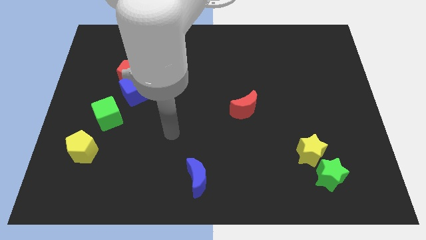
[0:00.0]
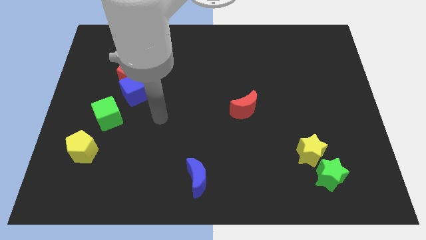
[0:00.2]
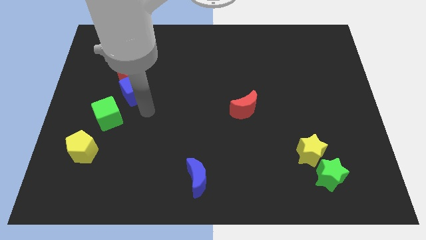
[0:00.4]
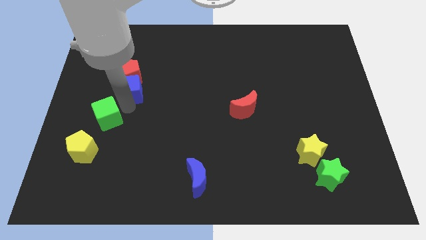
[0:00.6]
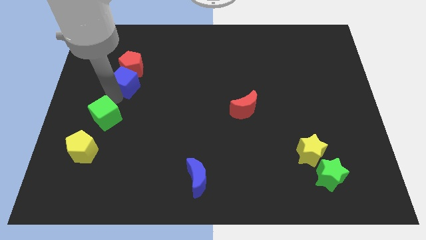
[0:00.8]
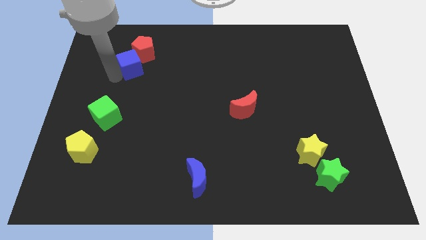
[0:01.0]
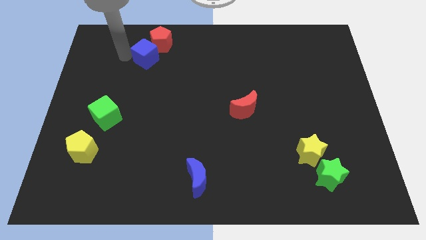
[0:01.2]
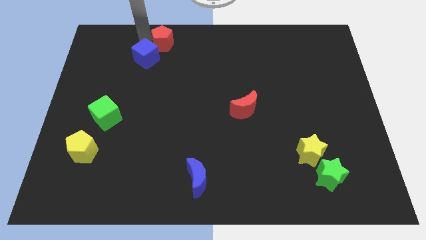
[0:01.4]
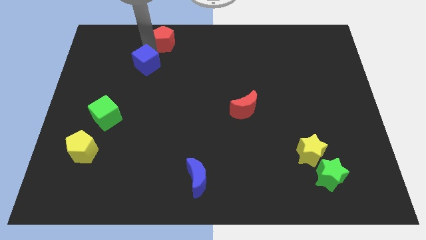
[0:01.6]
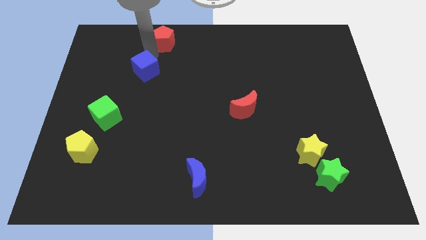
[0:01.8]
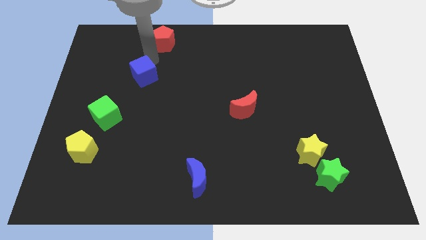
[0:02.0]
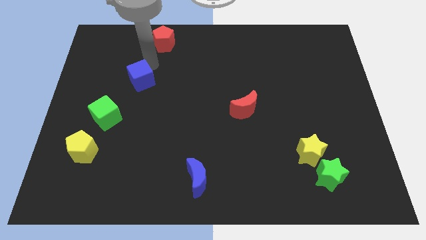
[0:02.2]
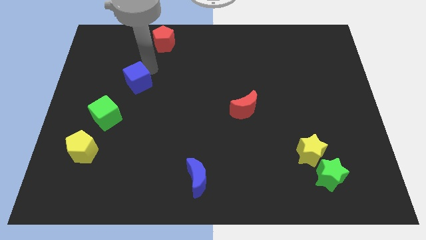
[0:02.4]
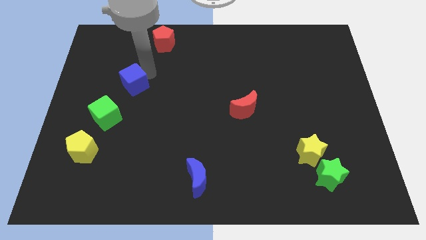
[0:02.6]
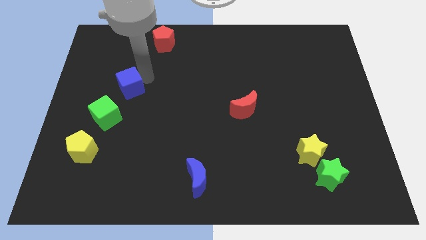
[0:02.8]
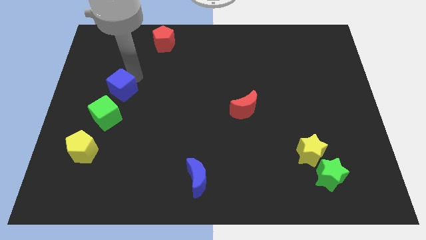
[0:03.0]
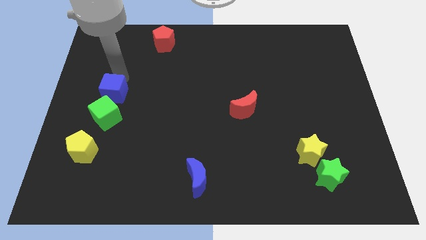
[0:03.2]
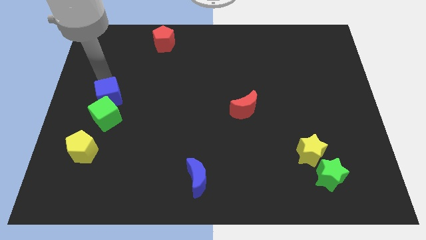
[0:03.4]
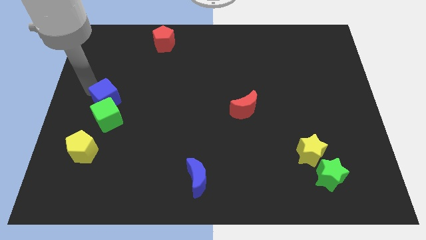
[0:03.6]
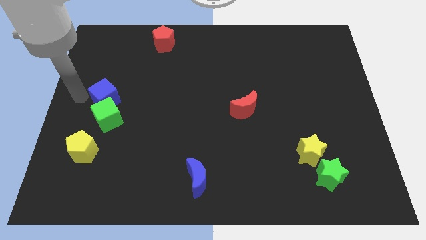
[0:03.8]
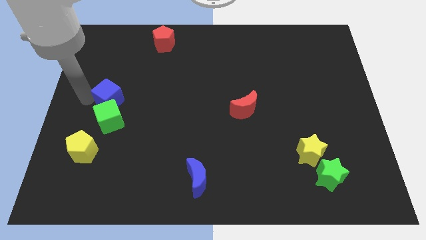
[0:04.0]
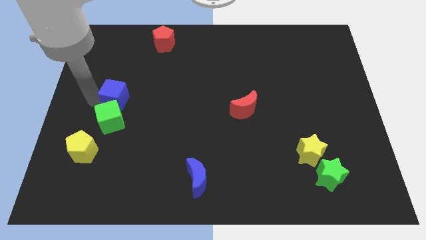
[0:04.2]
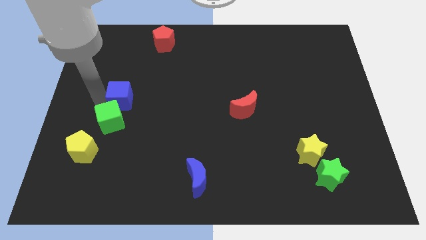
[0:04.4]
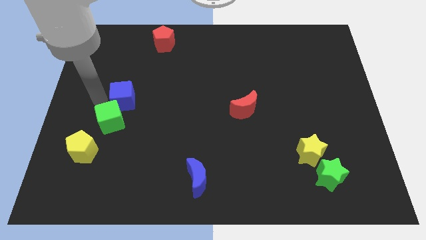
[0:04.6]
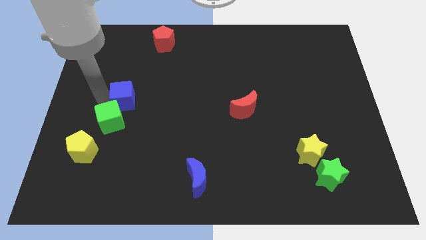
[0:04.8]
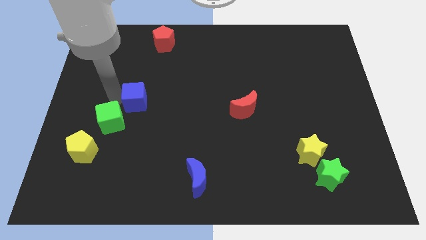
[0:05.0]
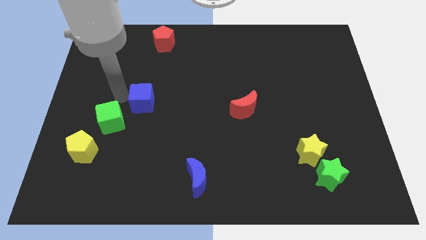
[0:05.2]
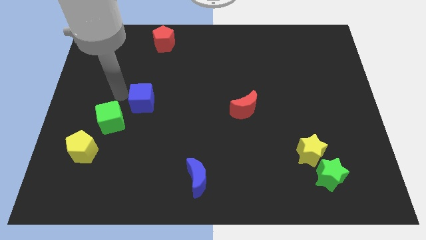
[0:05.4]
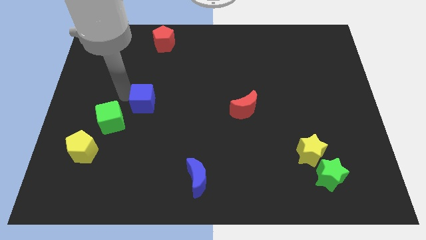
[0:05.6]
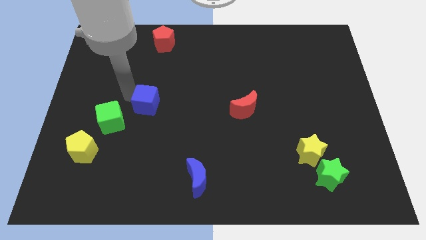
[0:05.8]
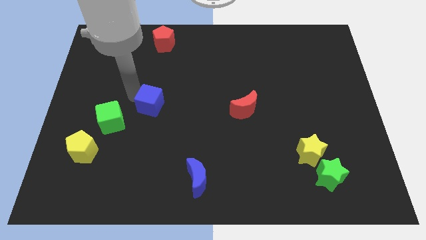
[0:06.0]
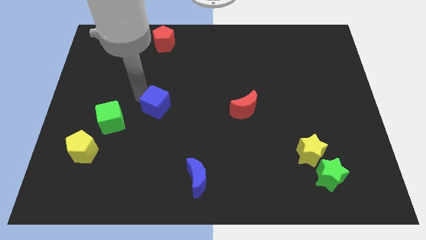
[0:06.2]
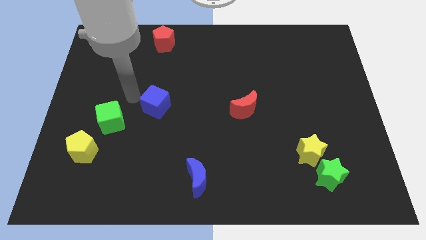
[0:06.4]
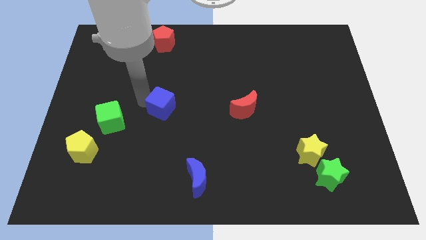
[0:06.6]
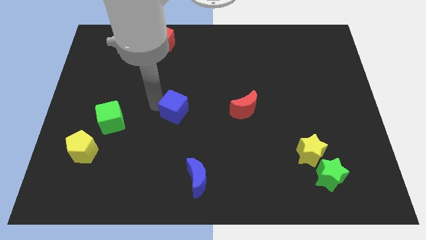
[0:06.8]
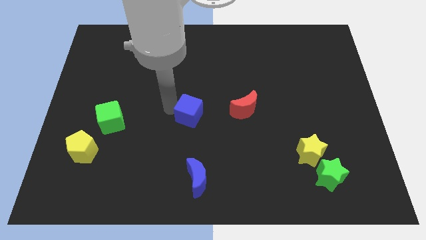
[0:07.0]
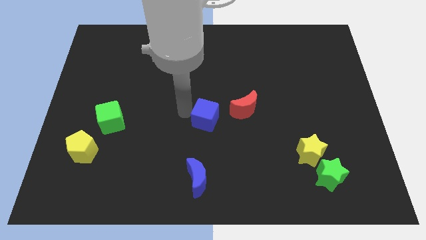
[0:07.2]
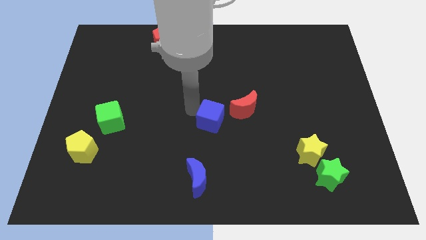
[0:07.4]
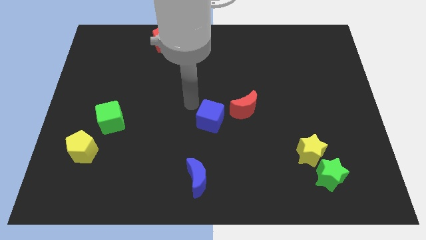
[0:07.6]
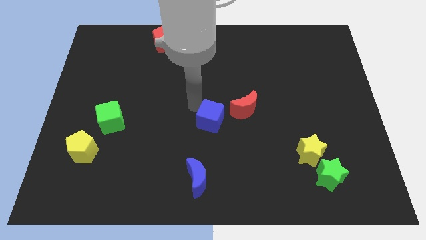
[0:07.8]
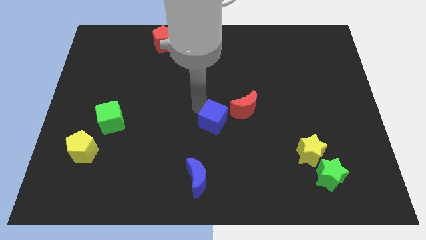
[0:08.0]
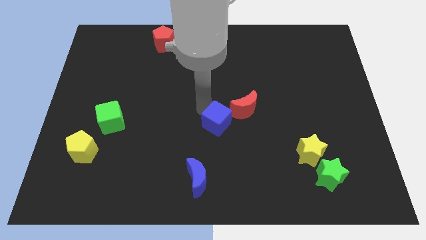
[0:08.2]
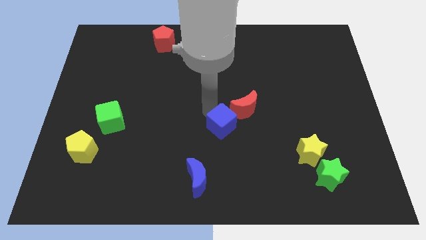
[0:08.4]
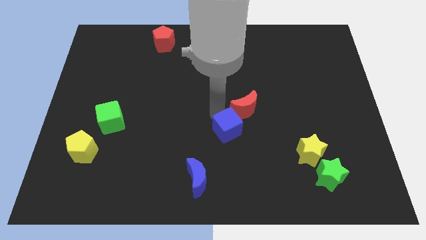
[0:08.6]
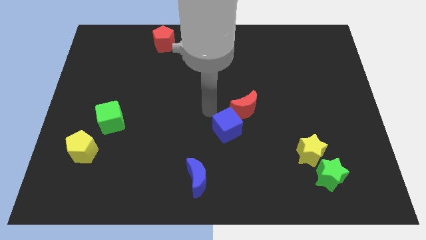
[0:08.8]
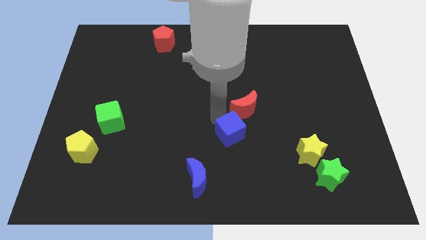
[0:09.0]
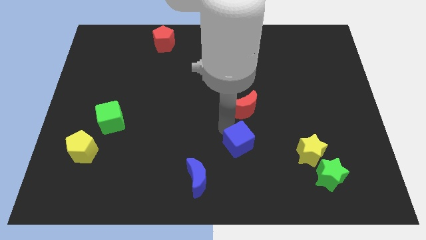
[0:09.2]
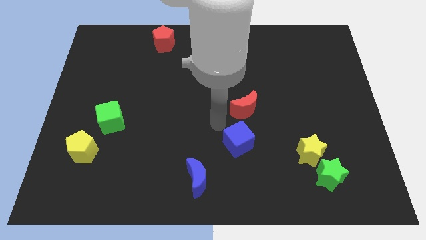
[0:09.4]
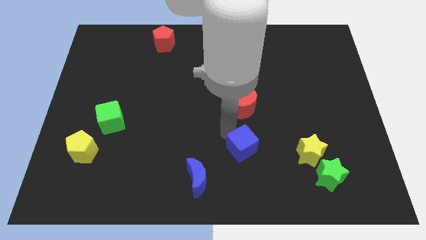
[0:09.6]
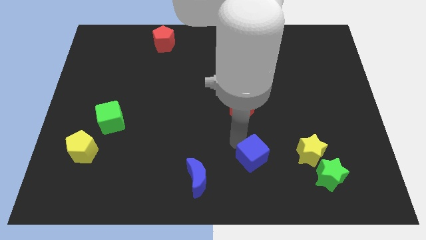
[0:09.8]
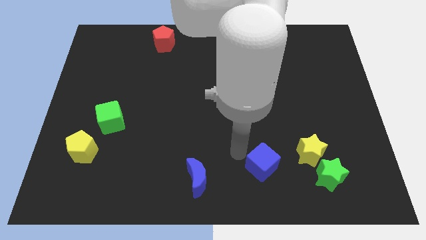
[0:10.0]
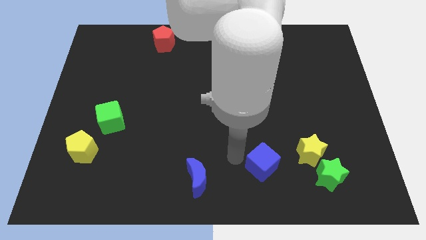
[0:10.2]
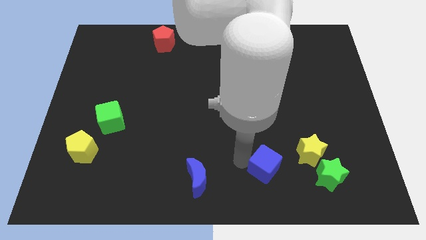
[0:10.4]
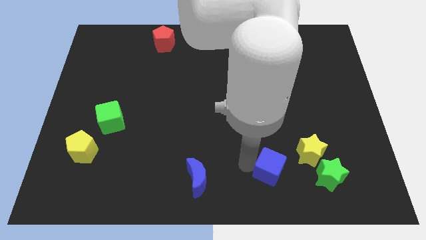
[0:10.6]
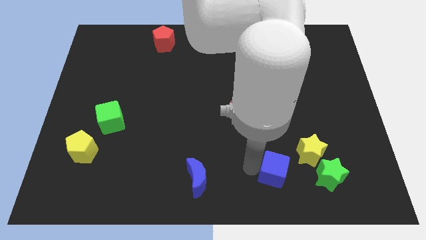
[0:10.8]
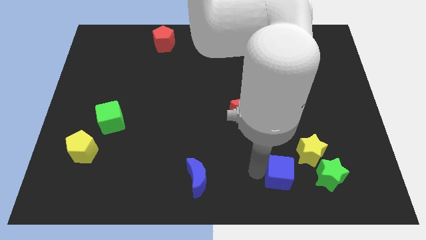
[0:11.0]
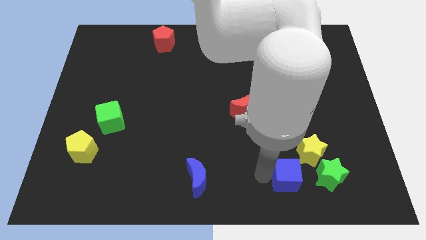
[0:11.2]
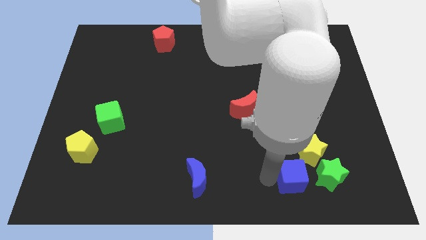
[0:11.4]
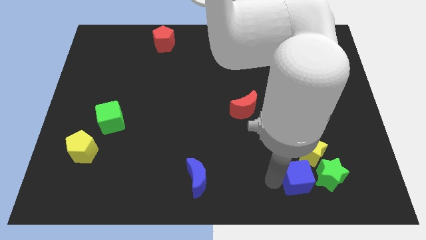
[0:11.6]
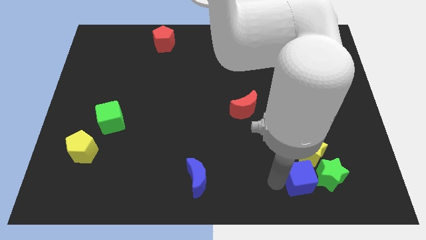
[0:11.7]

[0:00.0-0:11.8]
put the blue cube towards the green star
